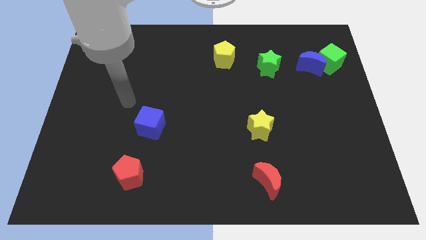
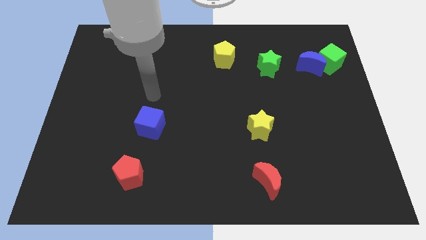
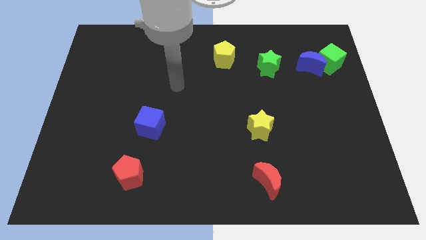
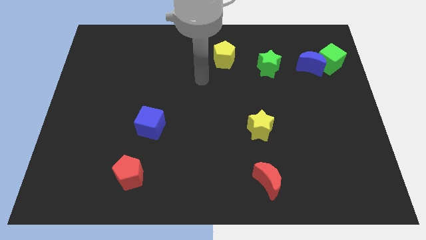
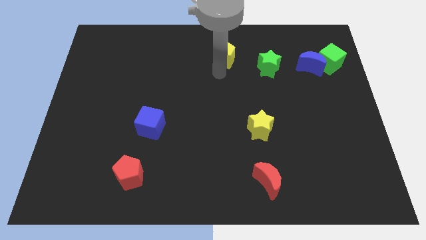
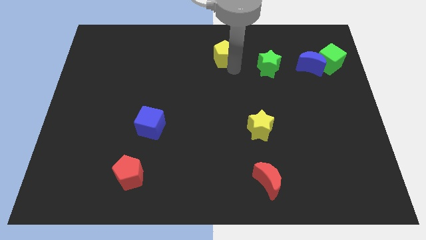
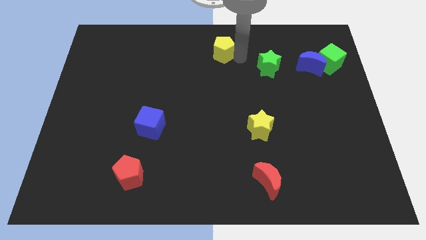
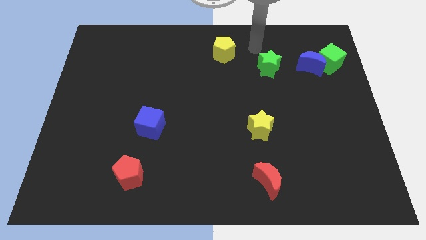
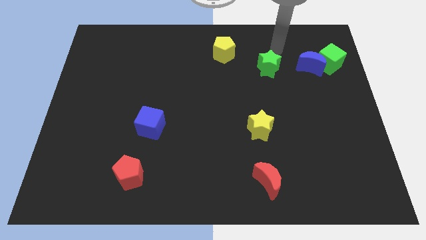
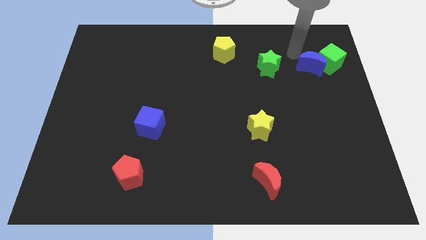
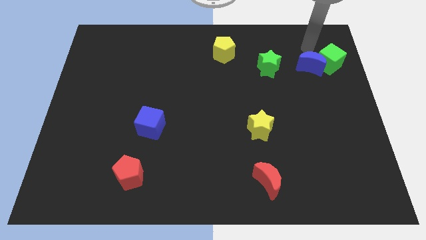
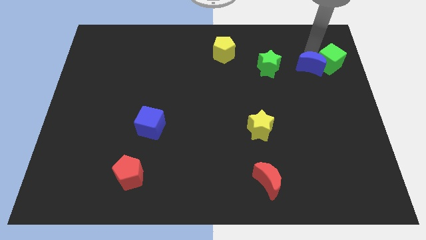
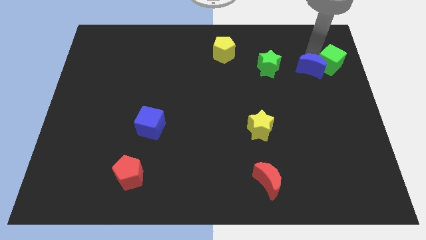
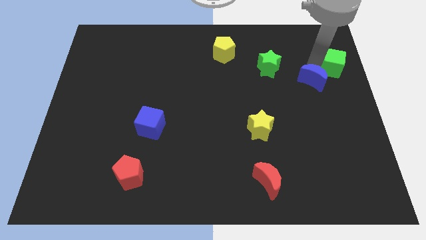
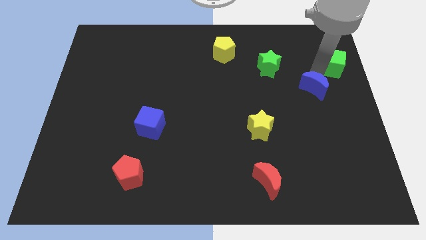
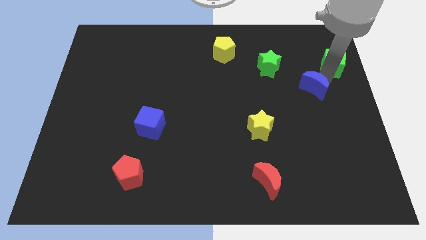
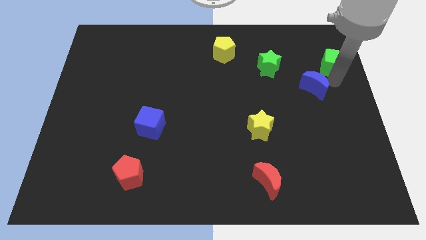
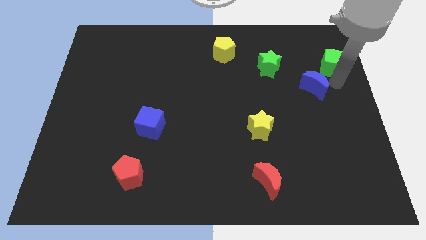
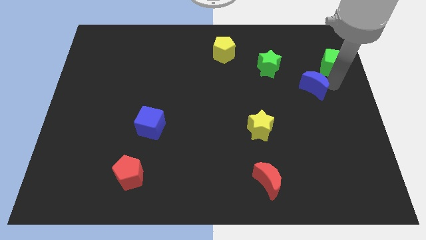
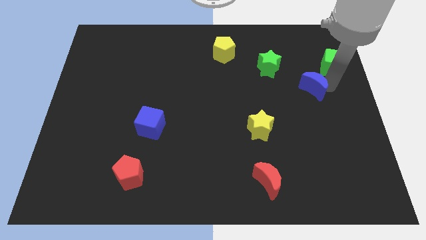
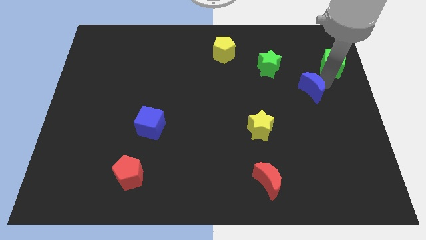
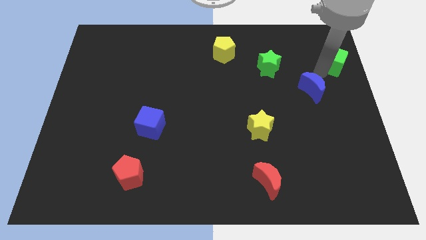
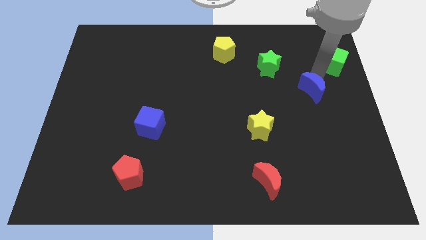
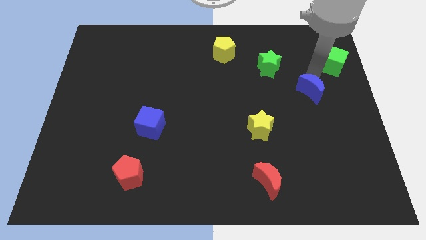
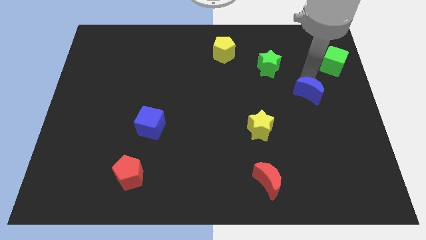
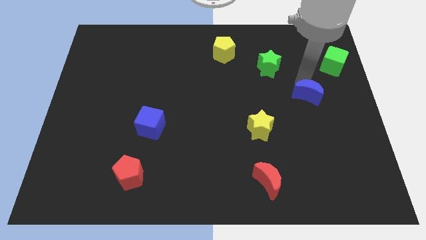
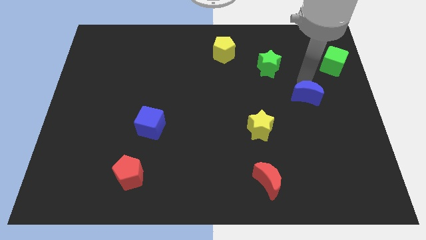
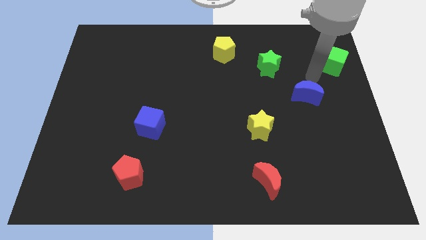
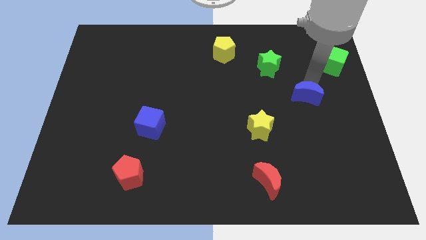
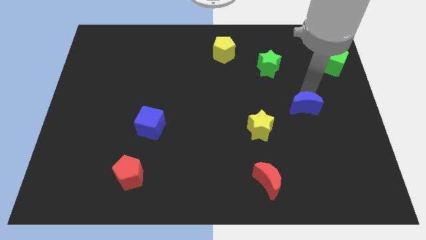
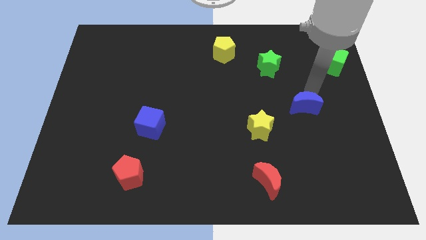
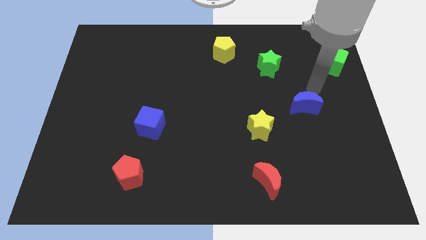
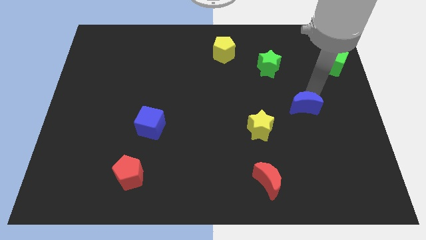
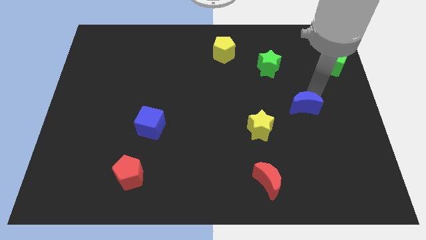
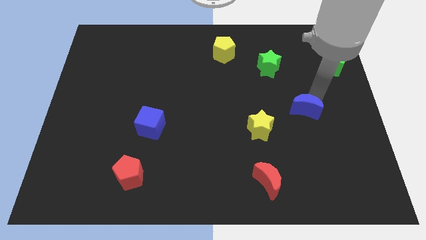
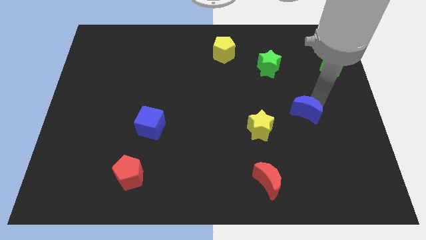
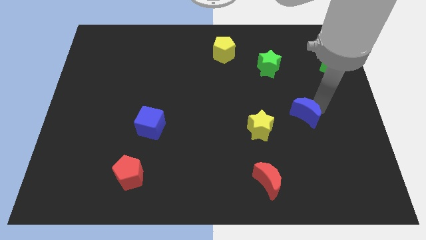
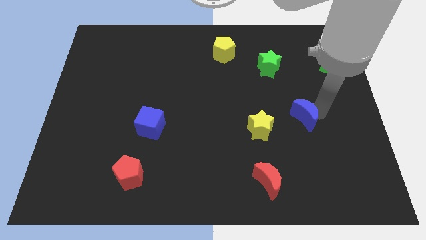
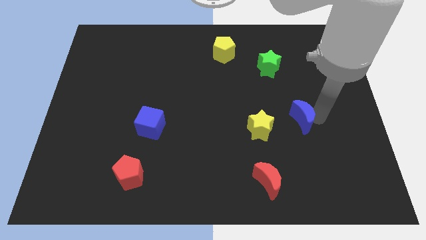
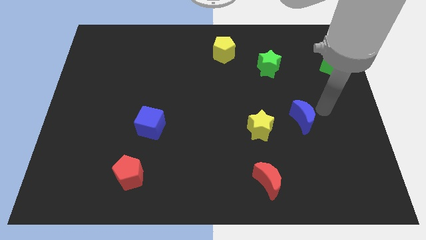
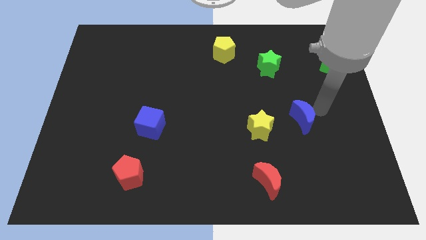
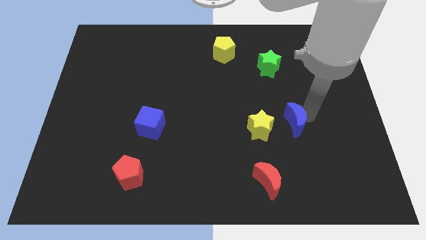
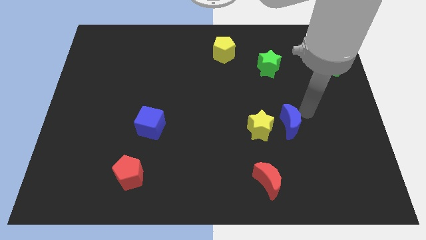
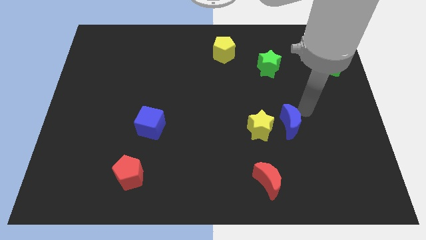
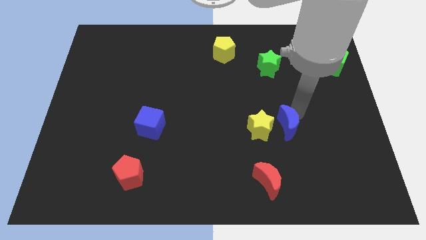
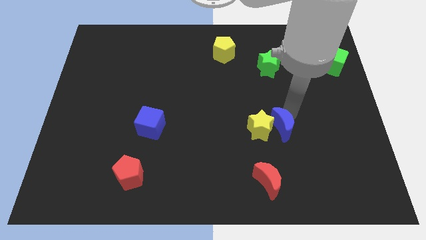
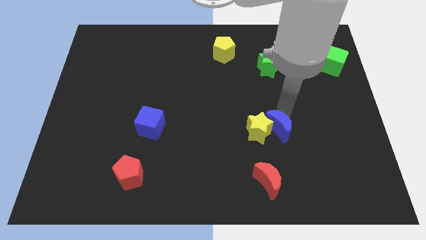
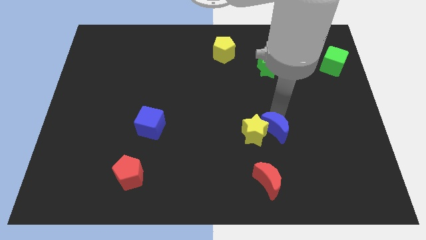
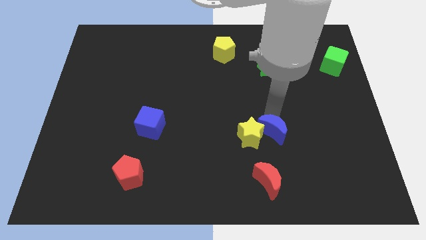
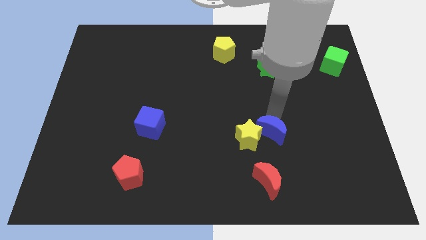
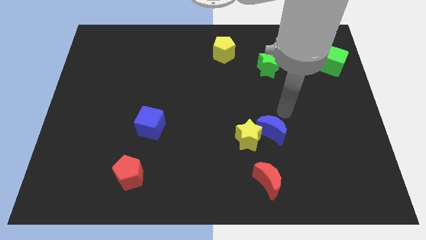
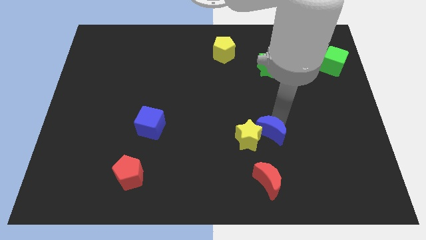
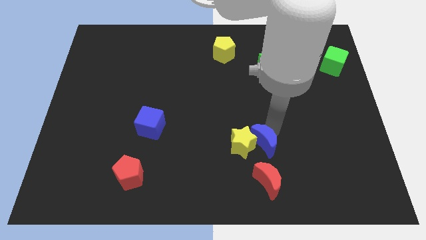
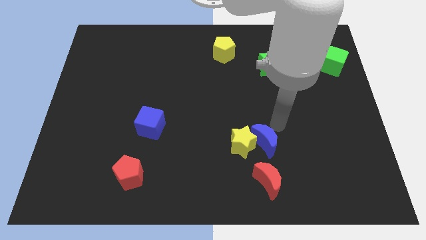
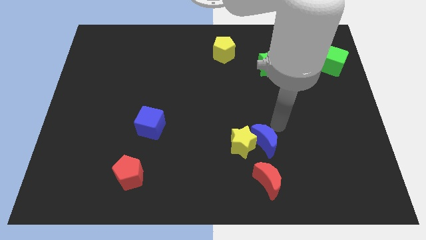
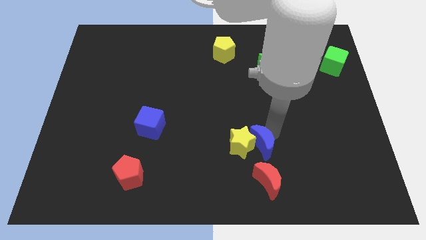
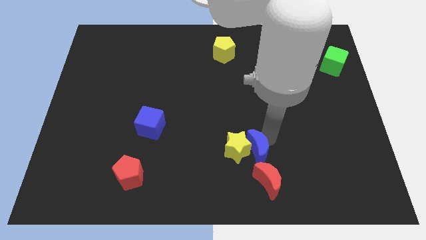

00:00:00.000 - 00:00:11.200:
put the blue moon to the top left side of the red moon

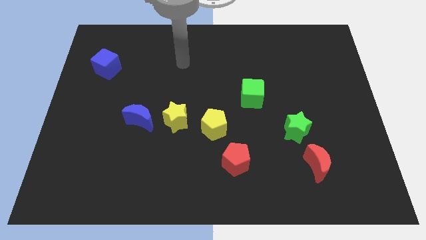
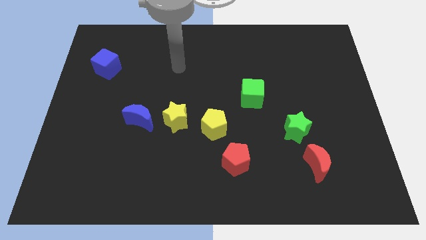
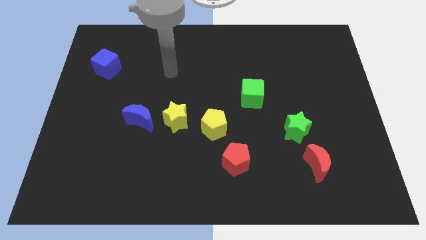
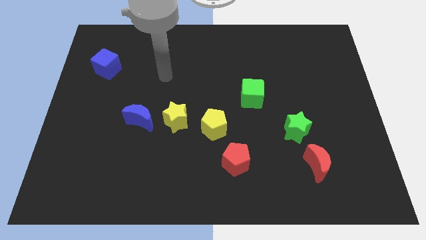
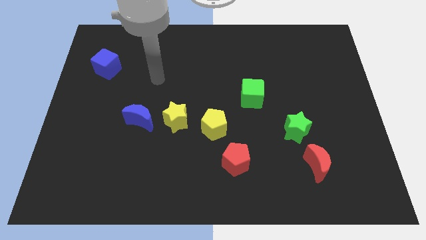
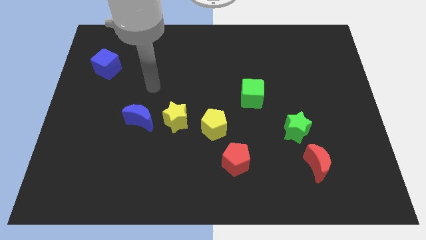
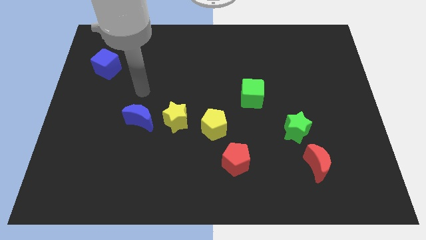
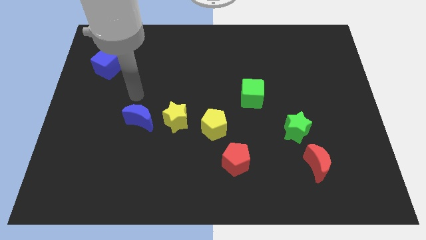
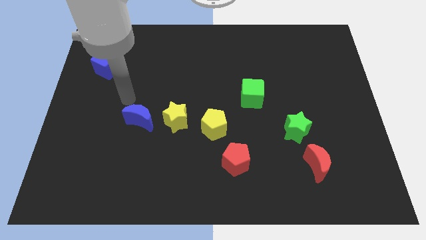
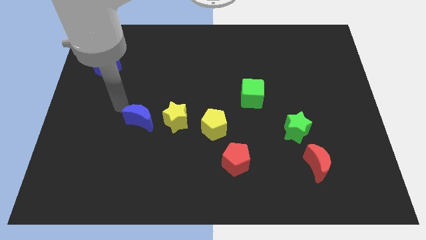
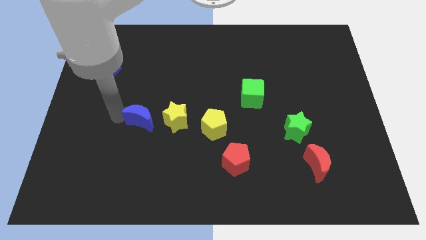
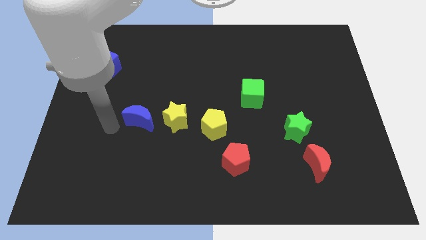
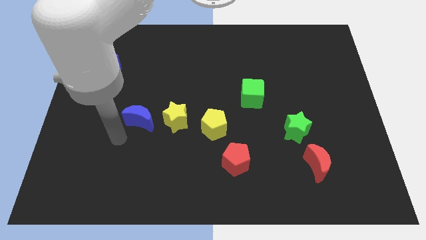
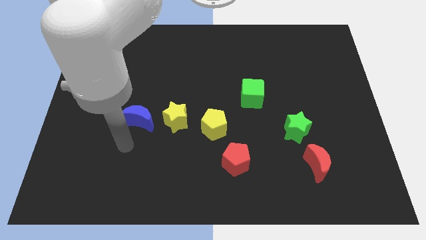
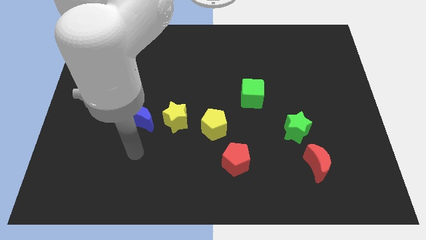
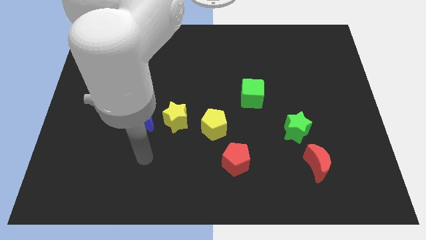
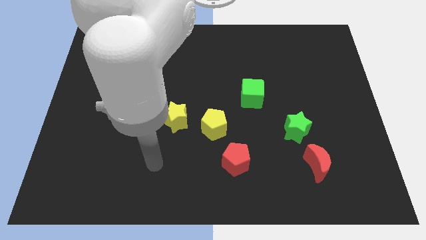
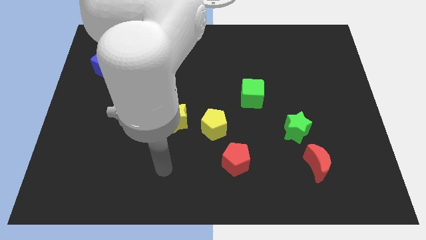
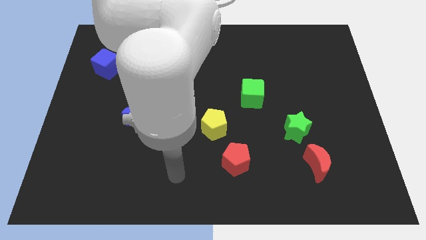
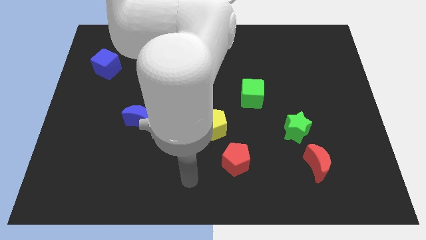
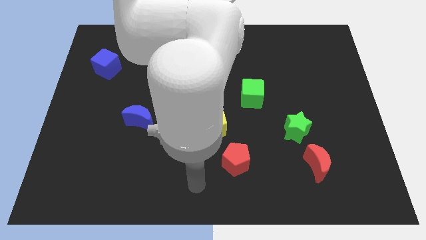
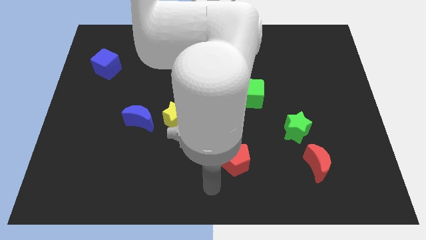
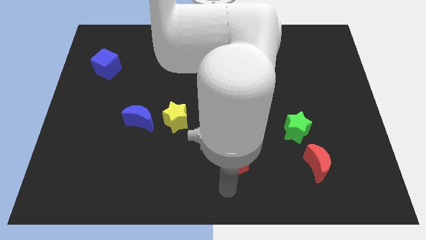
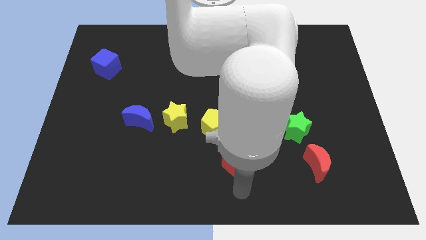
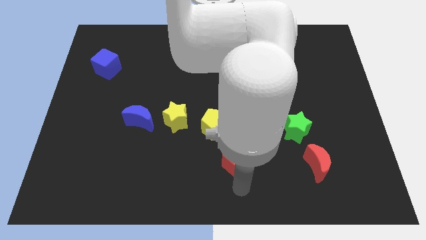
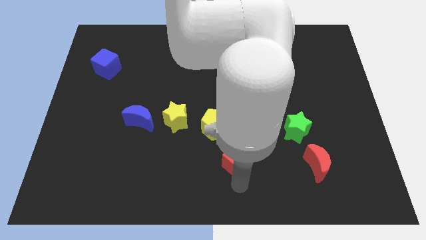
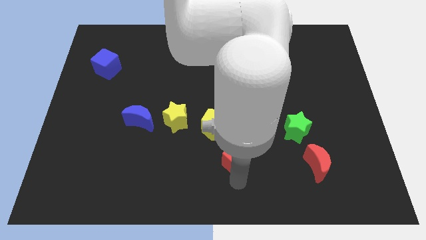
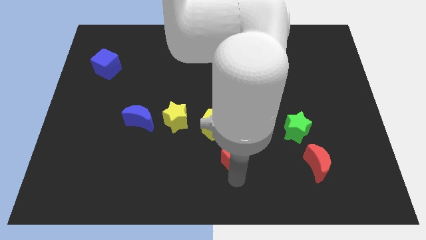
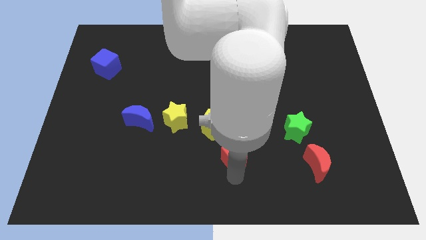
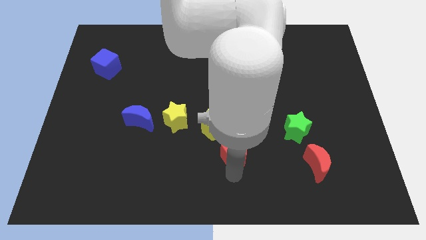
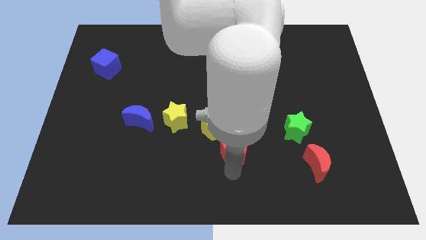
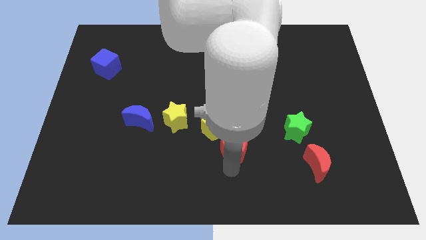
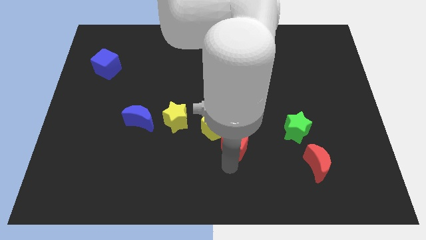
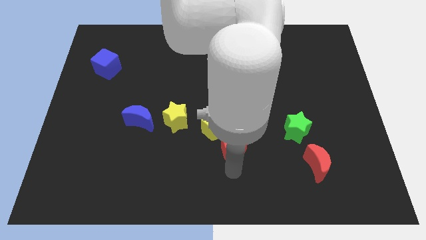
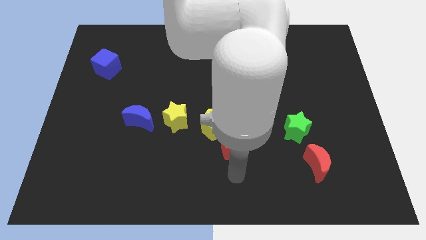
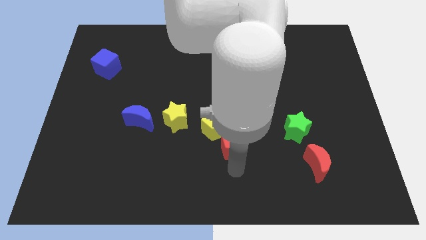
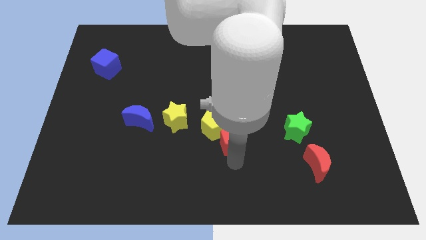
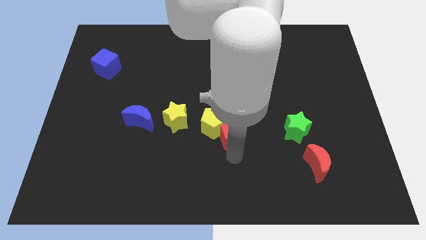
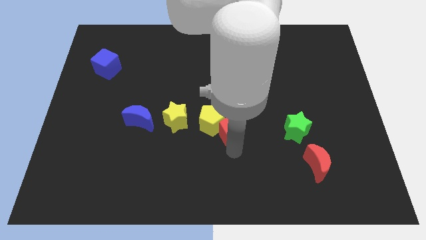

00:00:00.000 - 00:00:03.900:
move the red pentagon diagonally down and to the left of the green cube
